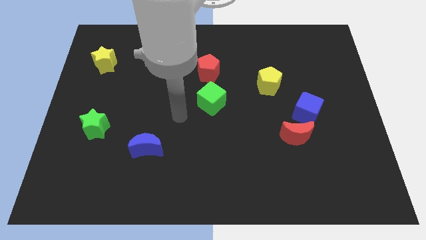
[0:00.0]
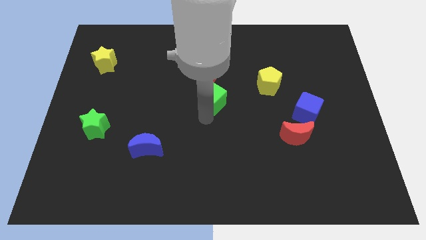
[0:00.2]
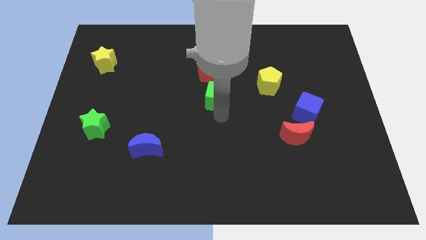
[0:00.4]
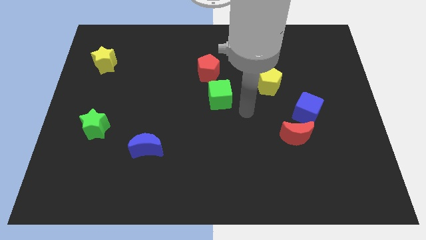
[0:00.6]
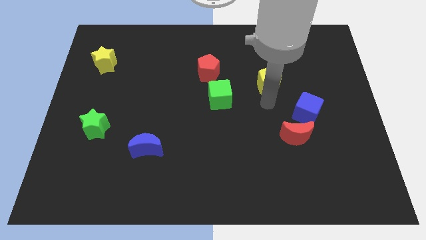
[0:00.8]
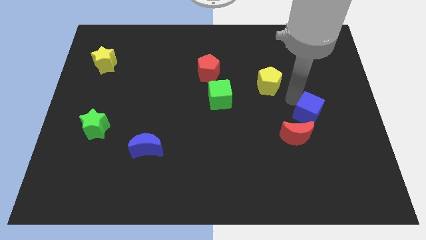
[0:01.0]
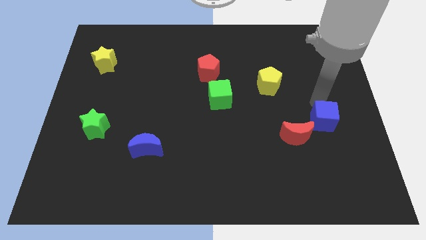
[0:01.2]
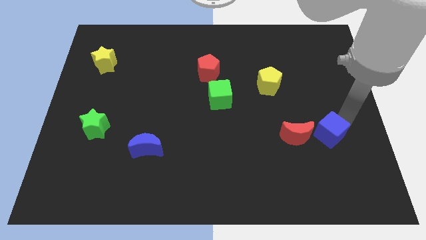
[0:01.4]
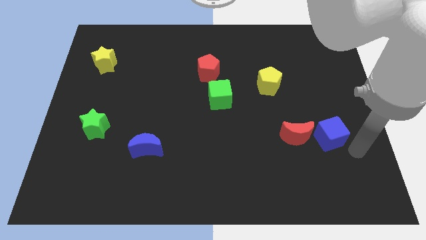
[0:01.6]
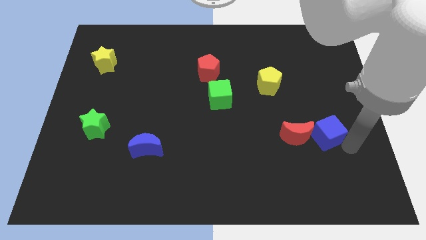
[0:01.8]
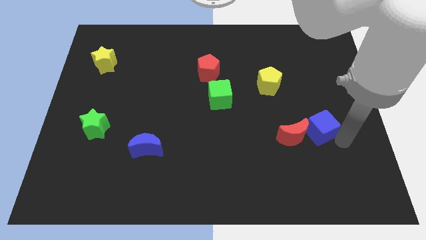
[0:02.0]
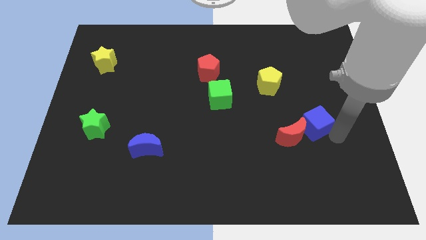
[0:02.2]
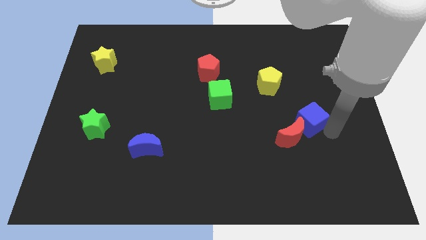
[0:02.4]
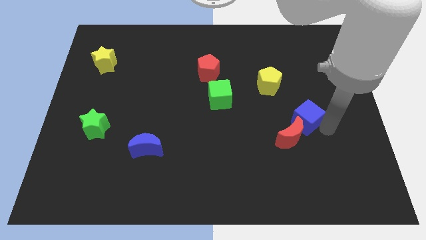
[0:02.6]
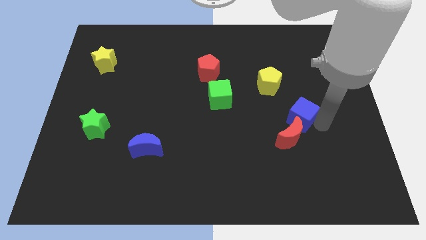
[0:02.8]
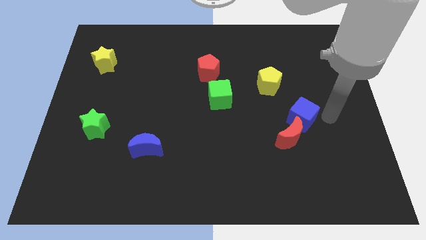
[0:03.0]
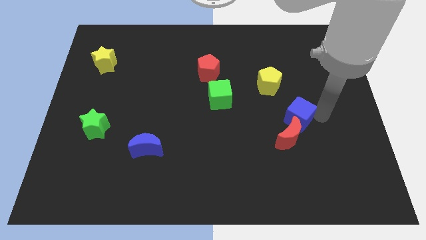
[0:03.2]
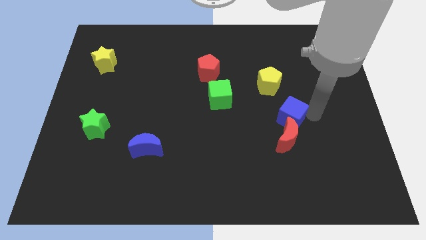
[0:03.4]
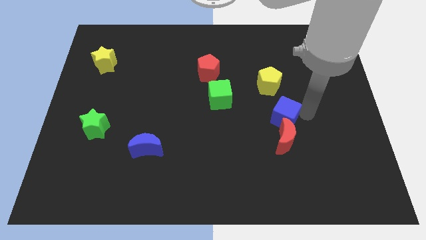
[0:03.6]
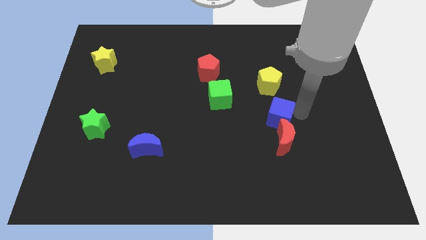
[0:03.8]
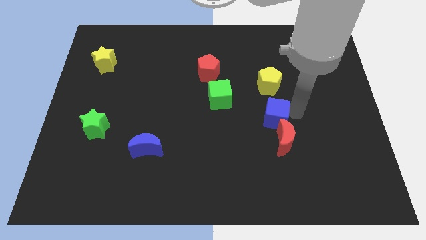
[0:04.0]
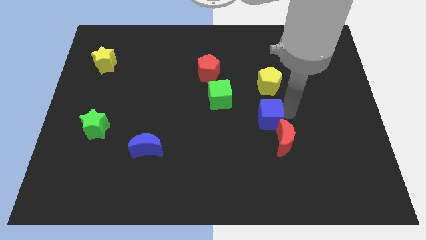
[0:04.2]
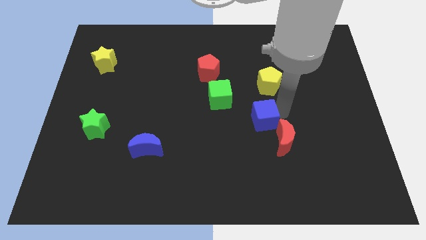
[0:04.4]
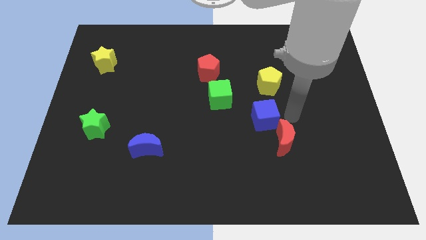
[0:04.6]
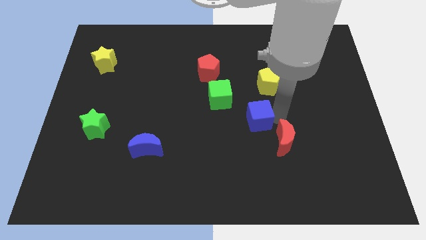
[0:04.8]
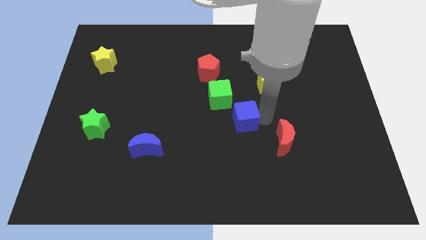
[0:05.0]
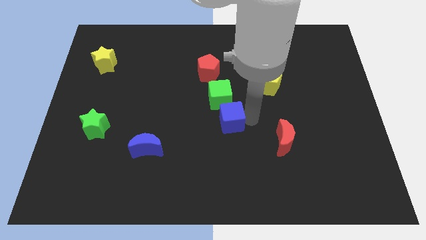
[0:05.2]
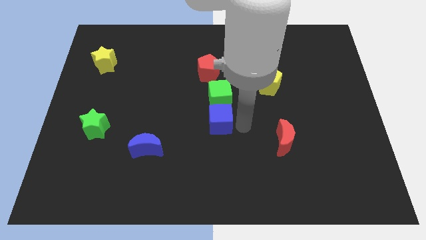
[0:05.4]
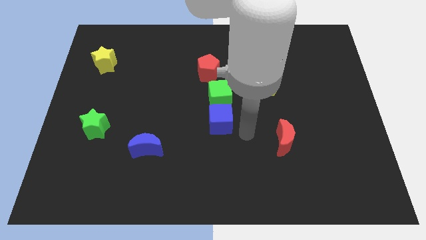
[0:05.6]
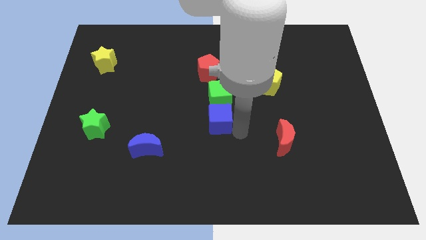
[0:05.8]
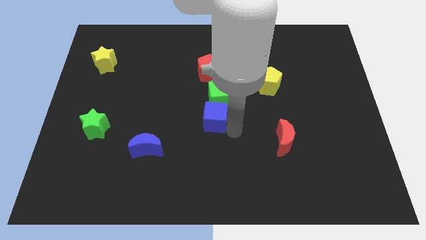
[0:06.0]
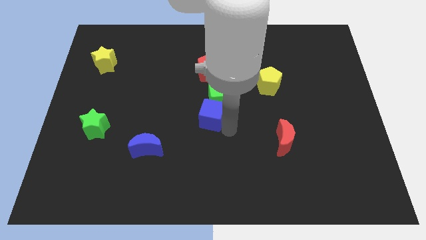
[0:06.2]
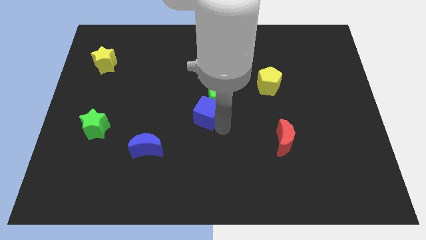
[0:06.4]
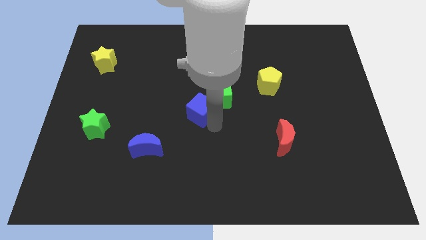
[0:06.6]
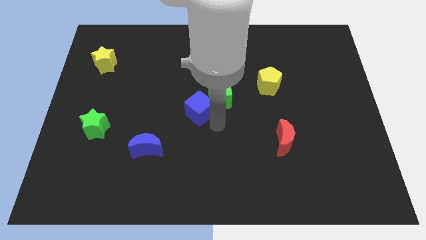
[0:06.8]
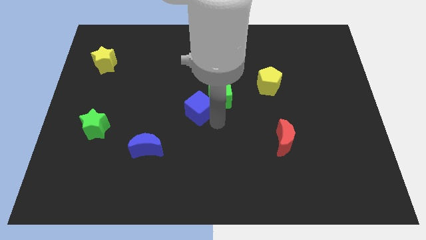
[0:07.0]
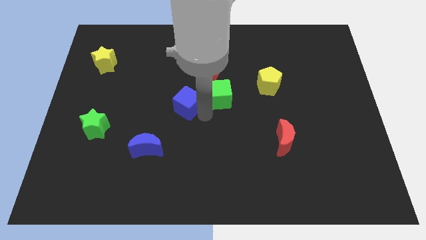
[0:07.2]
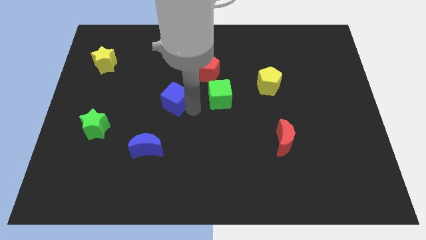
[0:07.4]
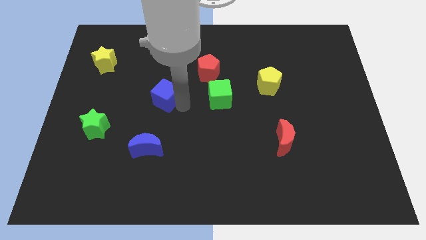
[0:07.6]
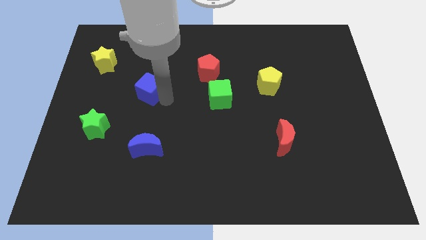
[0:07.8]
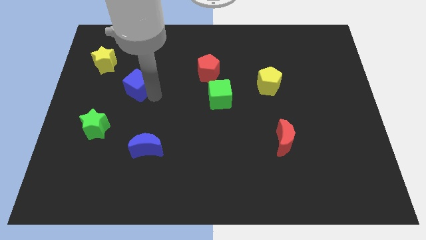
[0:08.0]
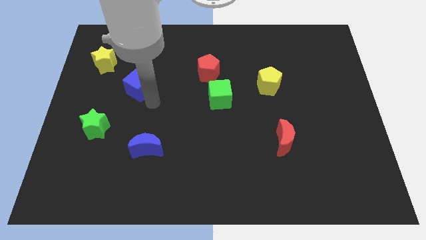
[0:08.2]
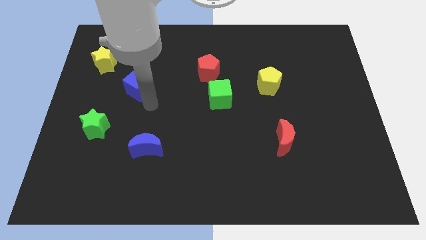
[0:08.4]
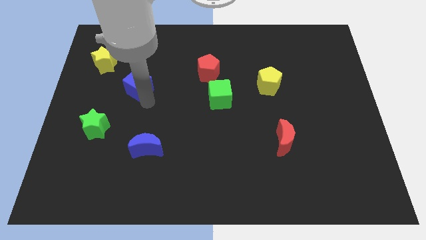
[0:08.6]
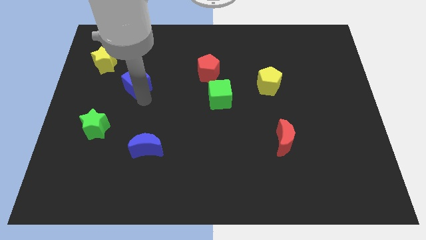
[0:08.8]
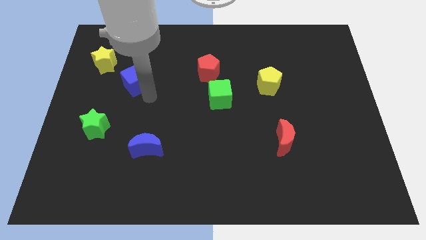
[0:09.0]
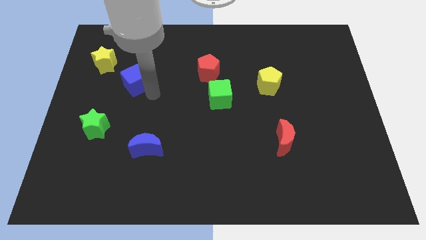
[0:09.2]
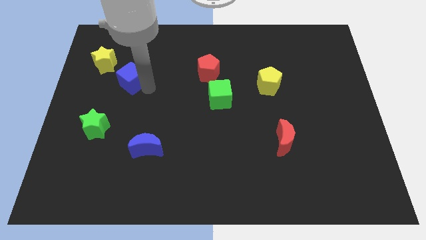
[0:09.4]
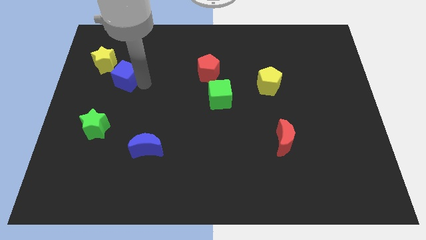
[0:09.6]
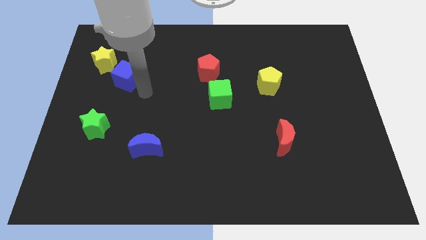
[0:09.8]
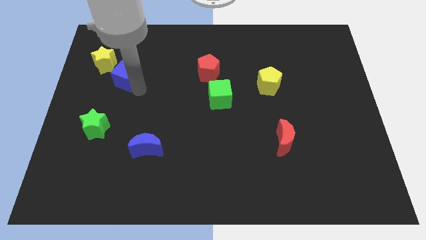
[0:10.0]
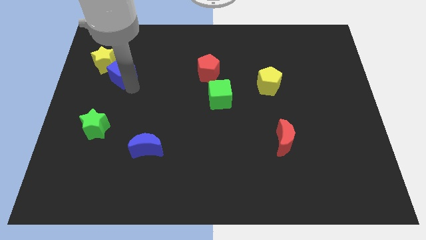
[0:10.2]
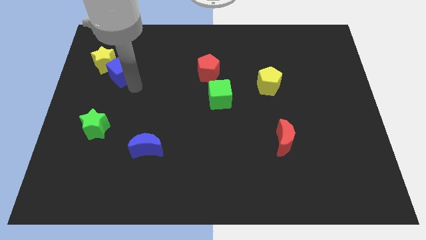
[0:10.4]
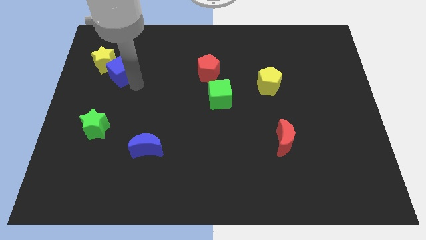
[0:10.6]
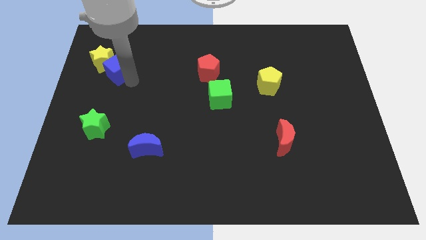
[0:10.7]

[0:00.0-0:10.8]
move the blue cube next to the yellow star

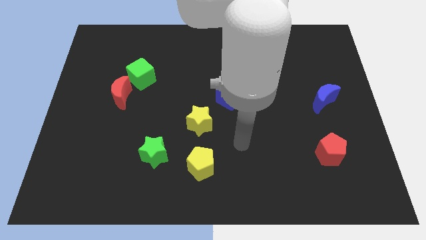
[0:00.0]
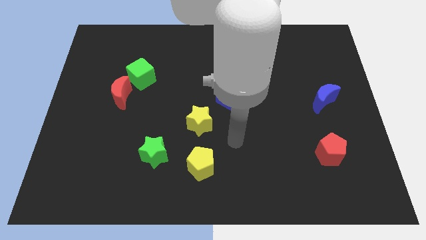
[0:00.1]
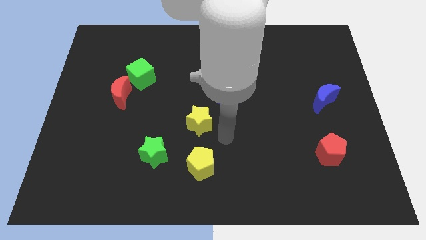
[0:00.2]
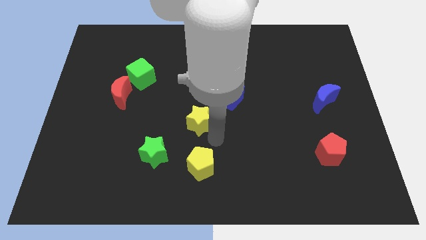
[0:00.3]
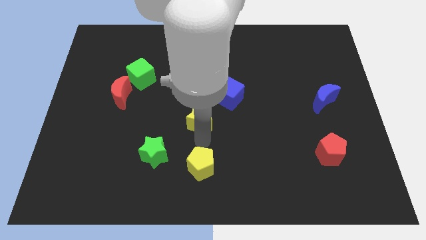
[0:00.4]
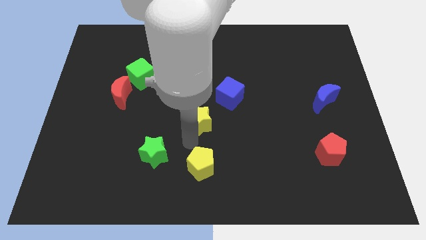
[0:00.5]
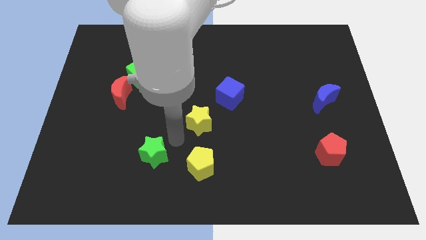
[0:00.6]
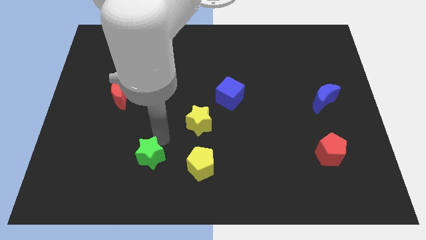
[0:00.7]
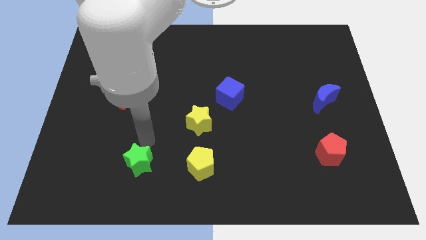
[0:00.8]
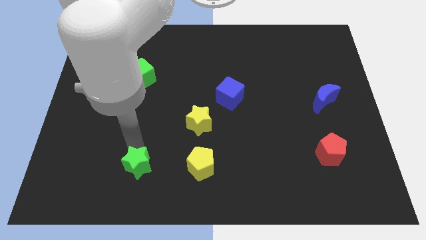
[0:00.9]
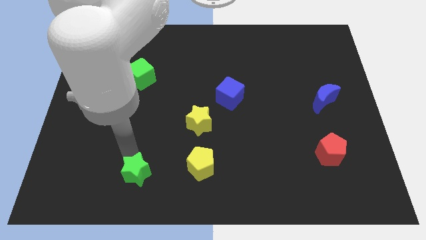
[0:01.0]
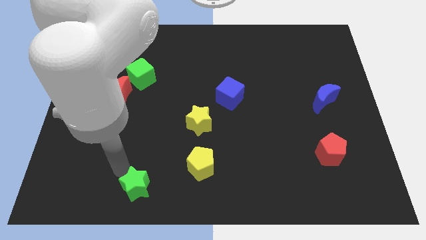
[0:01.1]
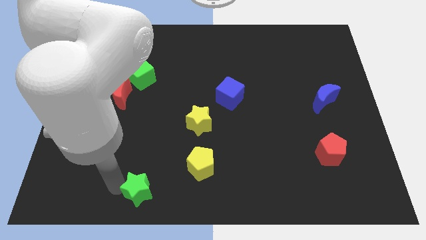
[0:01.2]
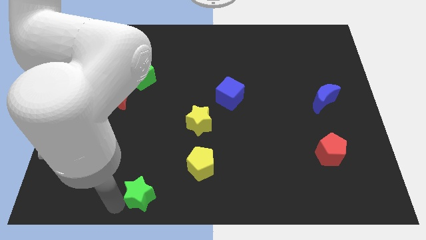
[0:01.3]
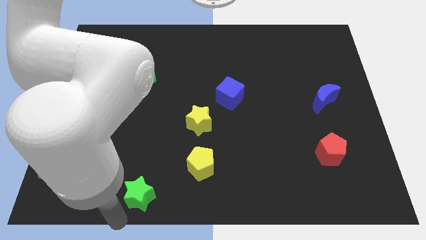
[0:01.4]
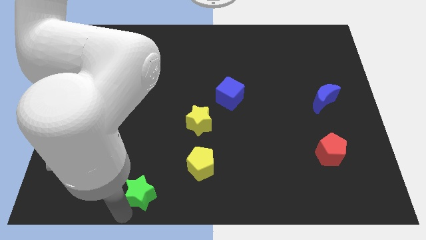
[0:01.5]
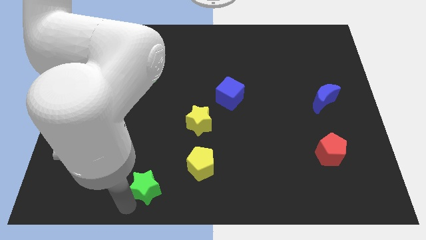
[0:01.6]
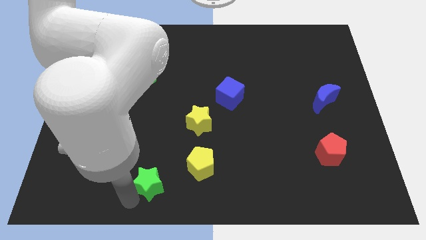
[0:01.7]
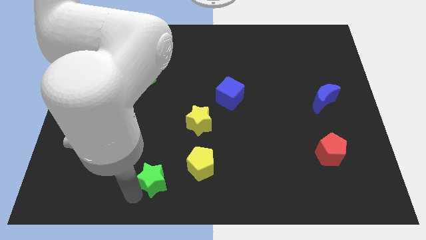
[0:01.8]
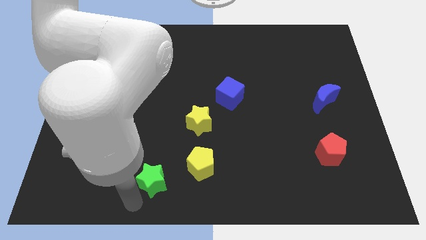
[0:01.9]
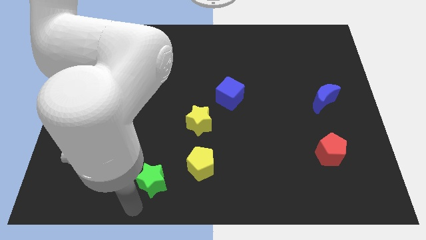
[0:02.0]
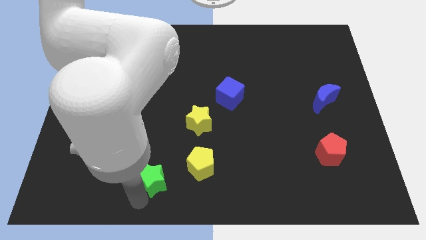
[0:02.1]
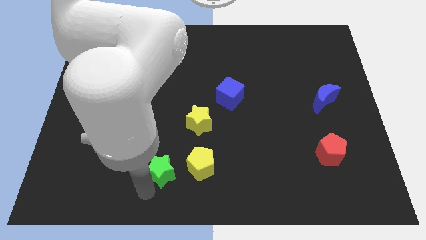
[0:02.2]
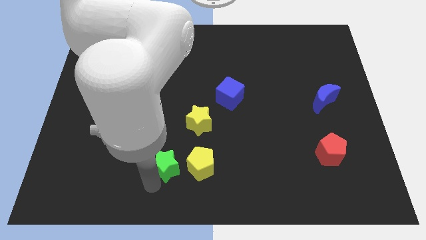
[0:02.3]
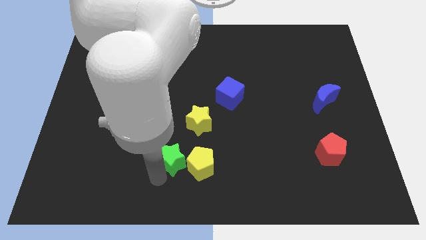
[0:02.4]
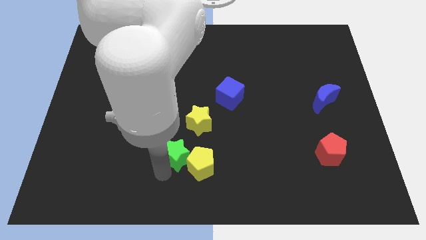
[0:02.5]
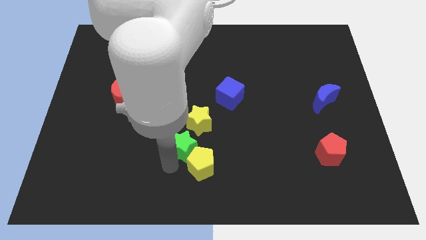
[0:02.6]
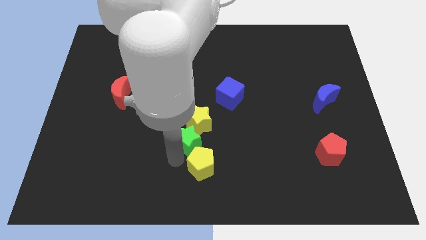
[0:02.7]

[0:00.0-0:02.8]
slide the green star towards the yellow star
